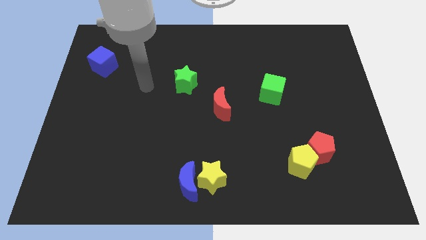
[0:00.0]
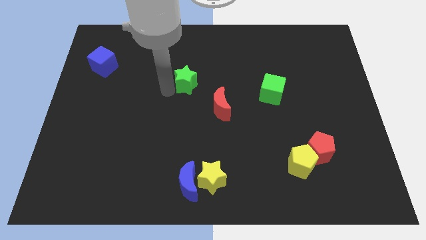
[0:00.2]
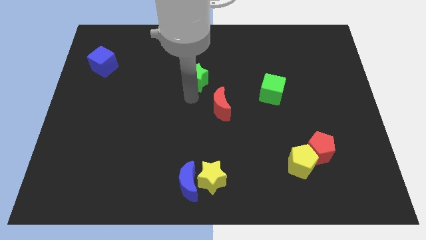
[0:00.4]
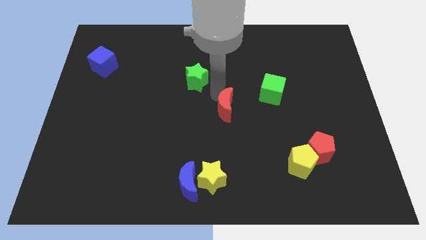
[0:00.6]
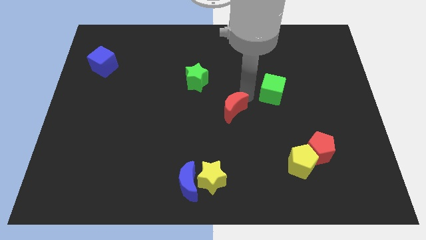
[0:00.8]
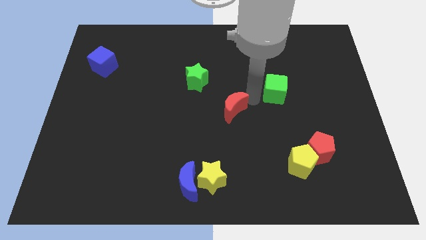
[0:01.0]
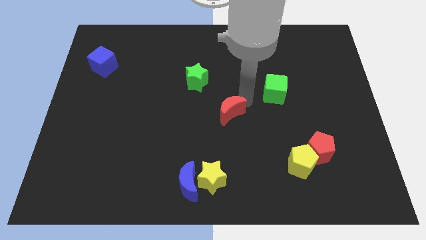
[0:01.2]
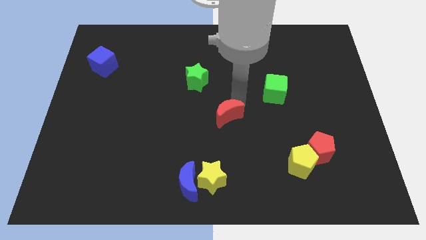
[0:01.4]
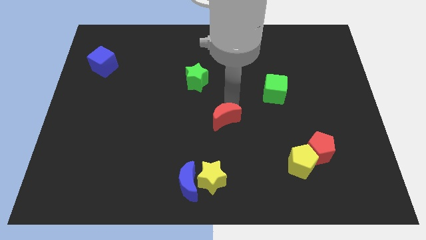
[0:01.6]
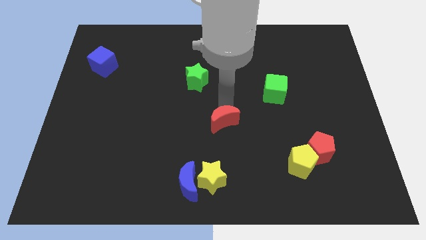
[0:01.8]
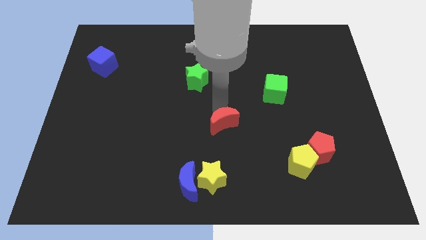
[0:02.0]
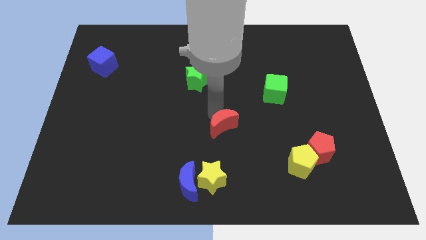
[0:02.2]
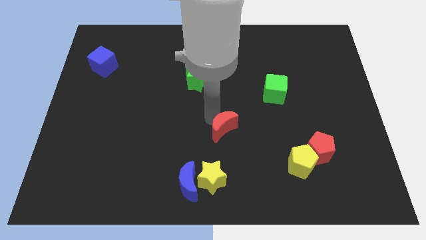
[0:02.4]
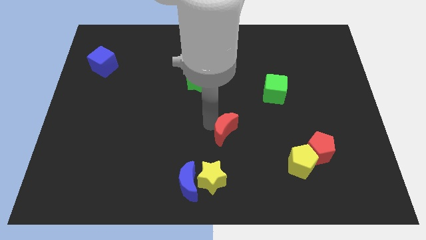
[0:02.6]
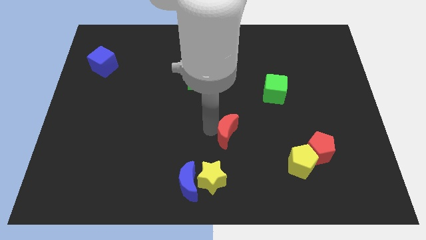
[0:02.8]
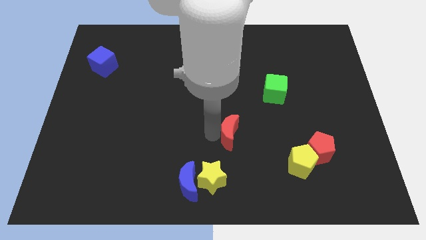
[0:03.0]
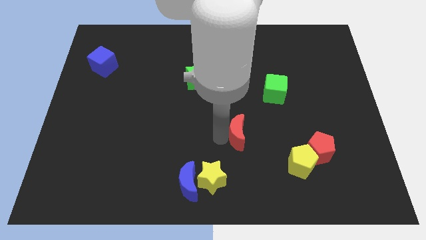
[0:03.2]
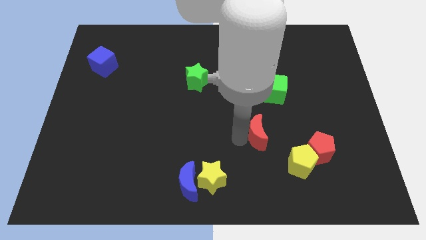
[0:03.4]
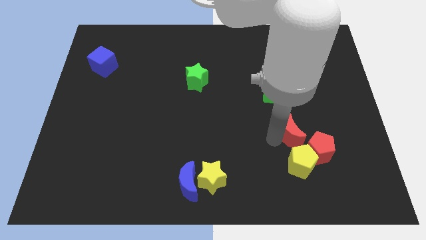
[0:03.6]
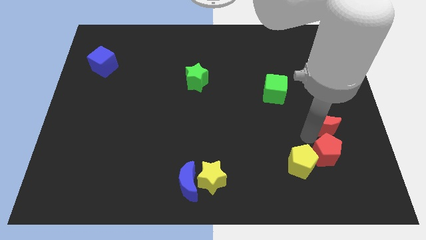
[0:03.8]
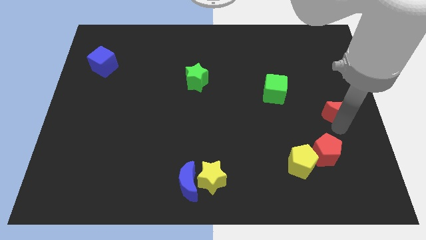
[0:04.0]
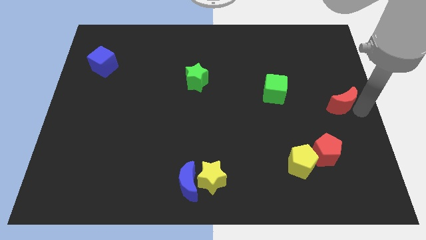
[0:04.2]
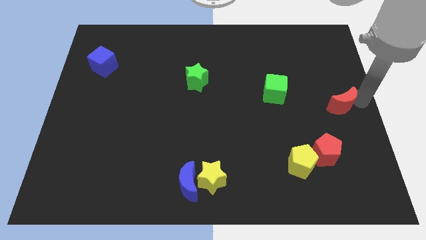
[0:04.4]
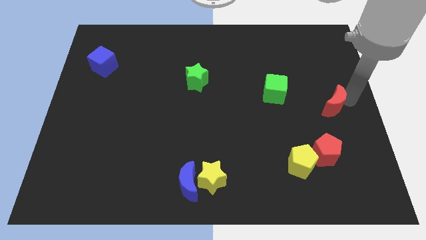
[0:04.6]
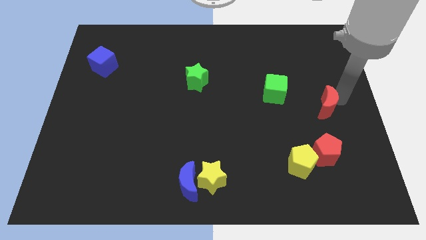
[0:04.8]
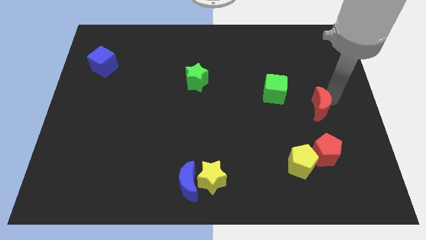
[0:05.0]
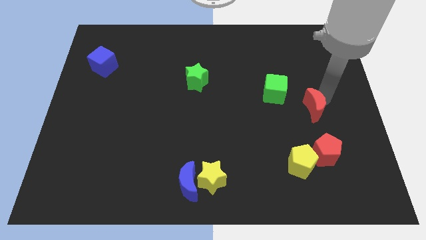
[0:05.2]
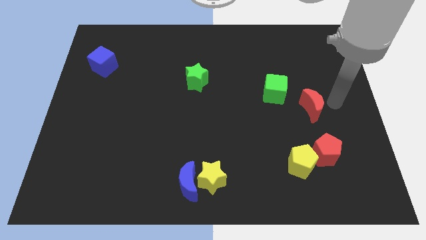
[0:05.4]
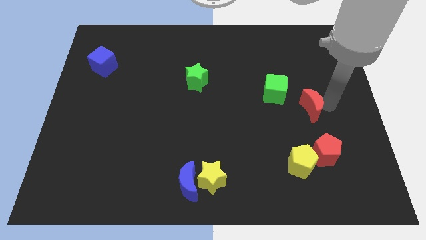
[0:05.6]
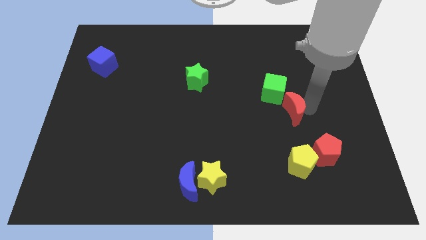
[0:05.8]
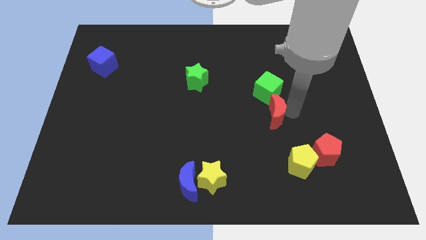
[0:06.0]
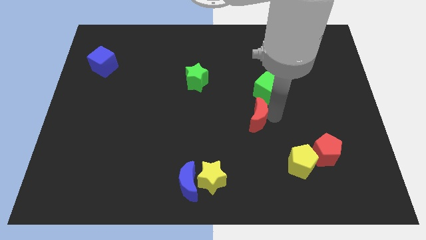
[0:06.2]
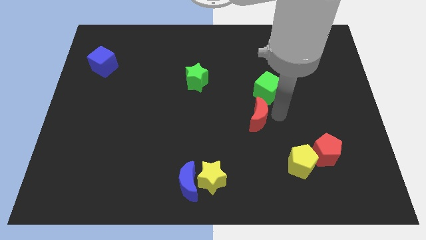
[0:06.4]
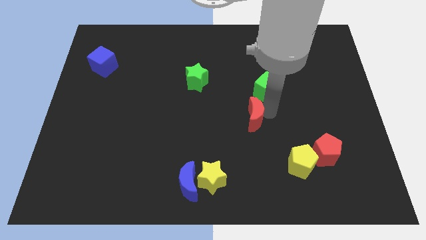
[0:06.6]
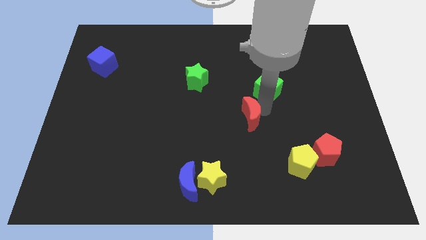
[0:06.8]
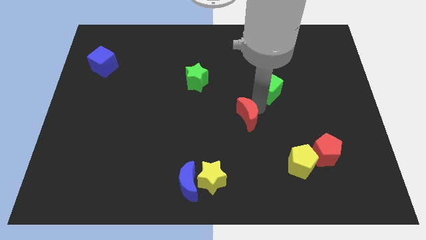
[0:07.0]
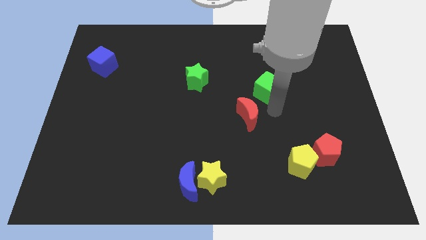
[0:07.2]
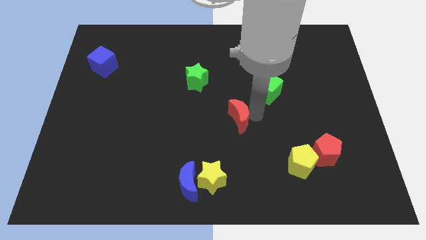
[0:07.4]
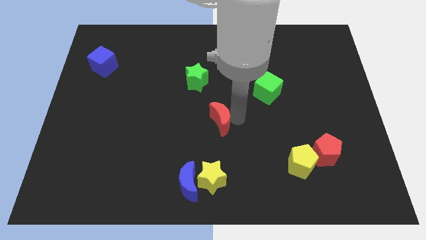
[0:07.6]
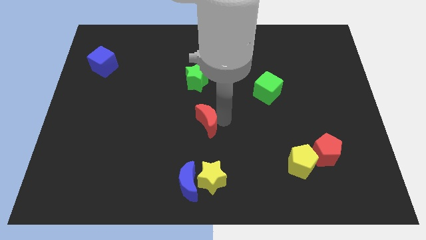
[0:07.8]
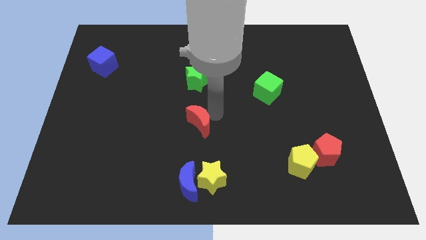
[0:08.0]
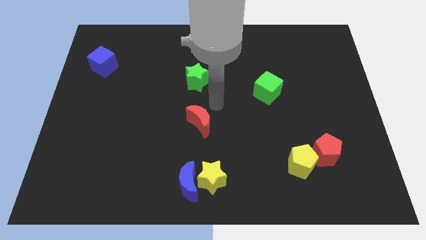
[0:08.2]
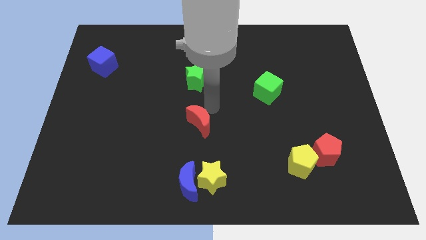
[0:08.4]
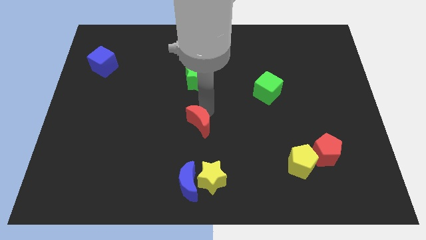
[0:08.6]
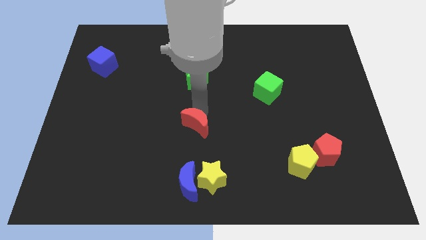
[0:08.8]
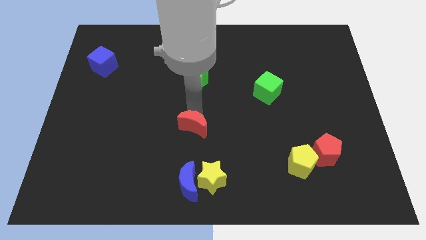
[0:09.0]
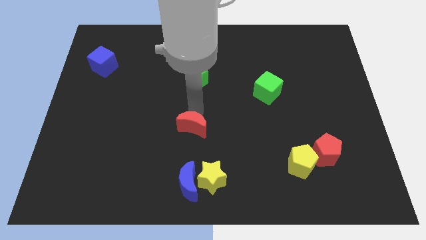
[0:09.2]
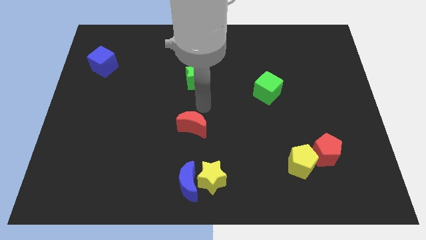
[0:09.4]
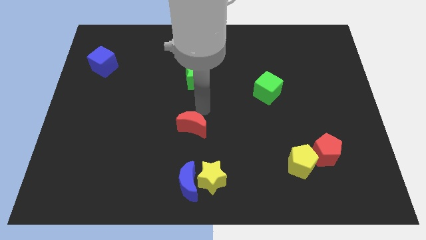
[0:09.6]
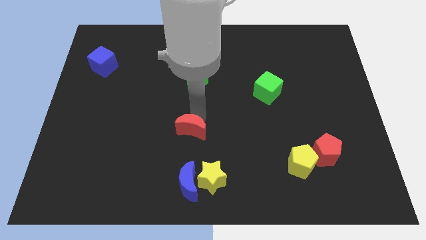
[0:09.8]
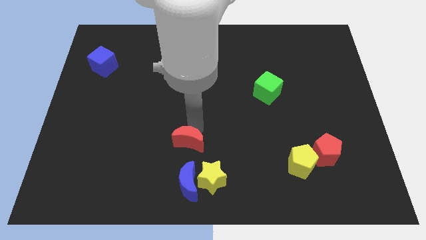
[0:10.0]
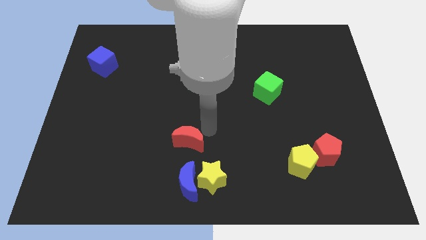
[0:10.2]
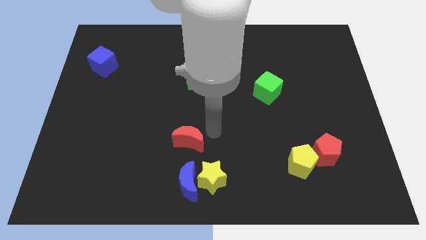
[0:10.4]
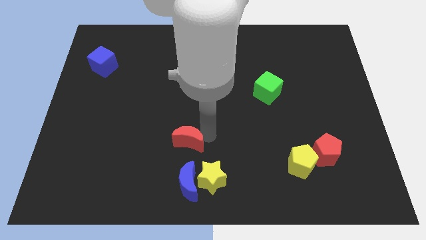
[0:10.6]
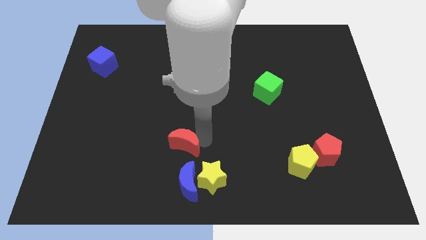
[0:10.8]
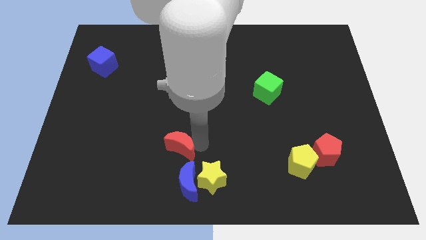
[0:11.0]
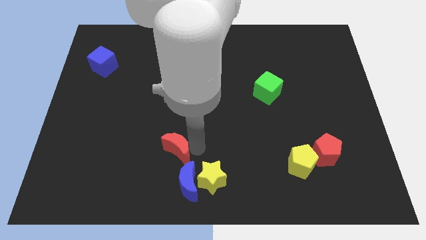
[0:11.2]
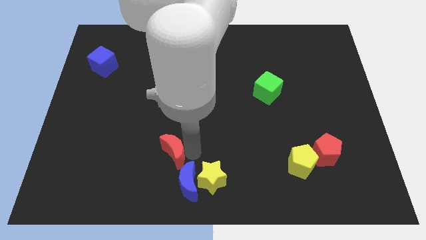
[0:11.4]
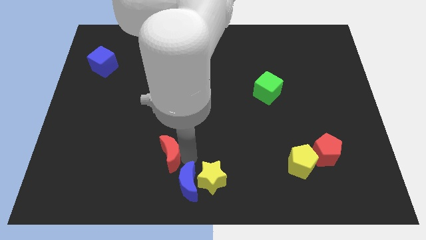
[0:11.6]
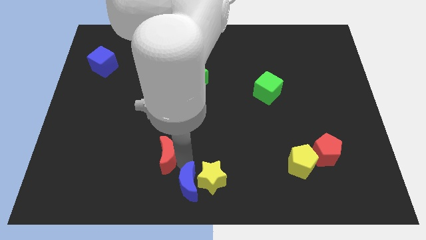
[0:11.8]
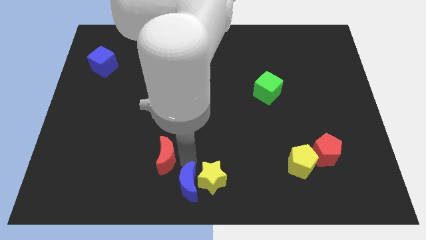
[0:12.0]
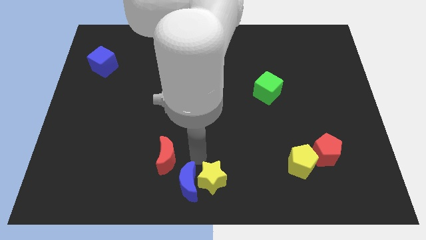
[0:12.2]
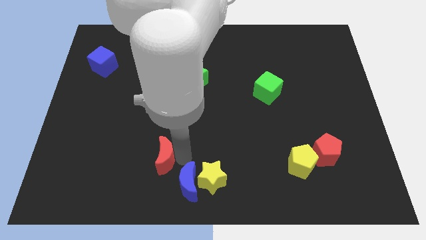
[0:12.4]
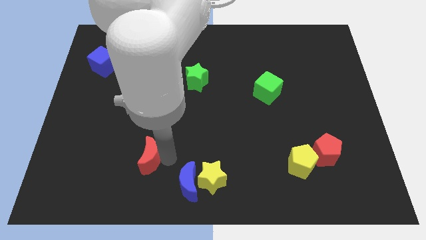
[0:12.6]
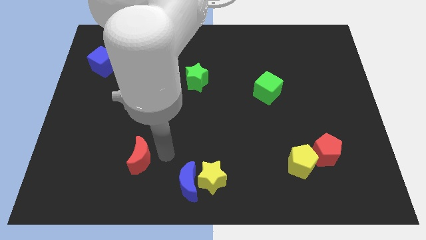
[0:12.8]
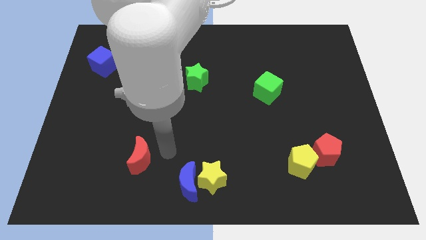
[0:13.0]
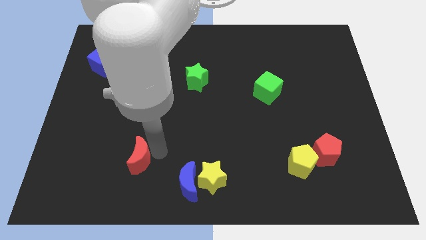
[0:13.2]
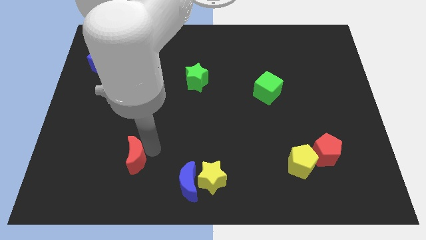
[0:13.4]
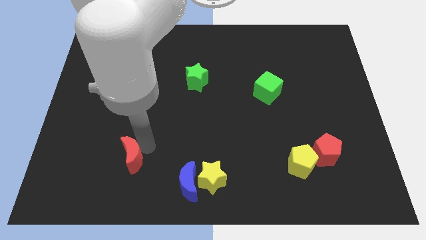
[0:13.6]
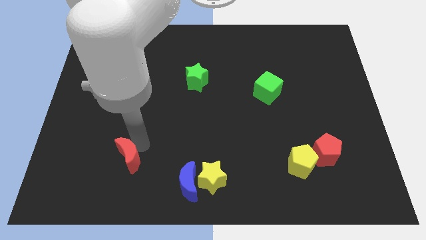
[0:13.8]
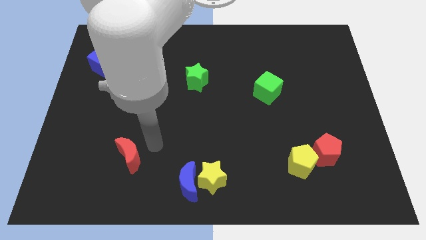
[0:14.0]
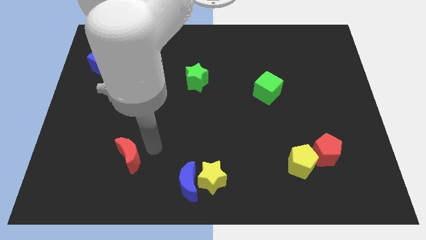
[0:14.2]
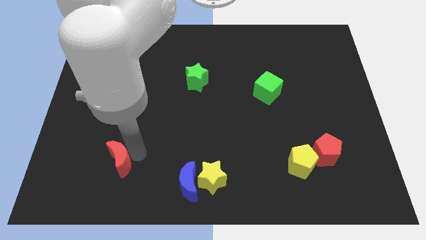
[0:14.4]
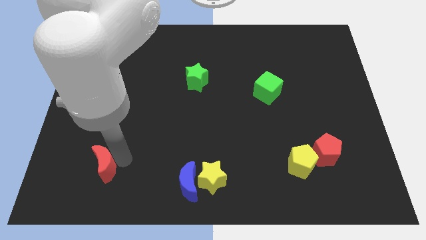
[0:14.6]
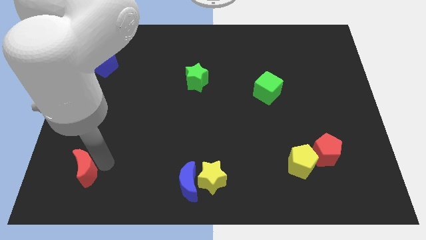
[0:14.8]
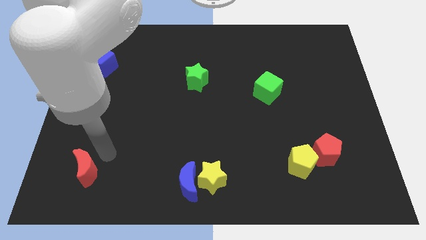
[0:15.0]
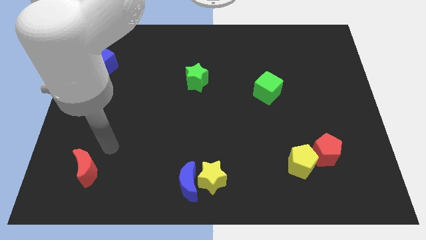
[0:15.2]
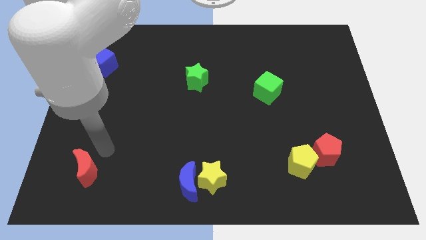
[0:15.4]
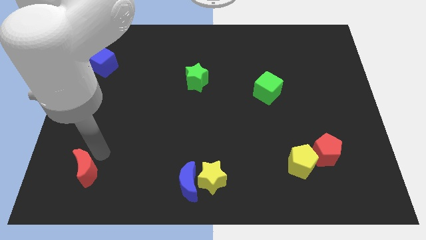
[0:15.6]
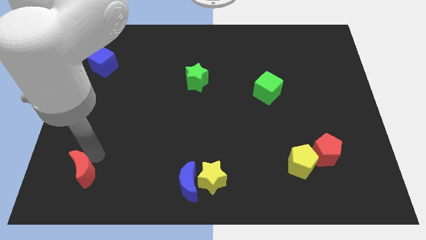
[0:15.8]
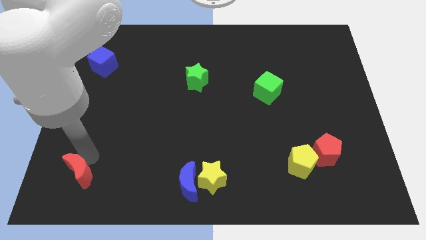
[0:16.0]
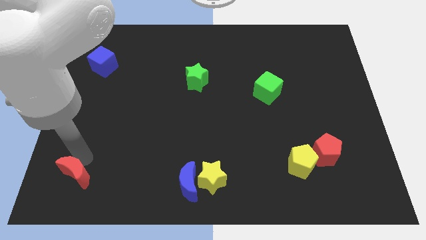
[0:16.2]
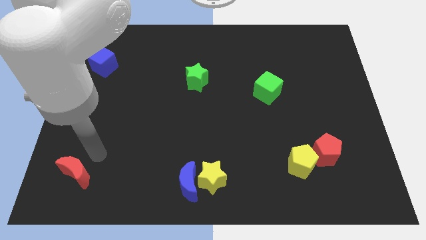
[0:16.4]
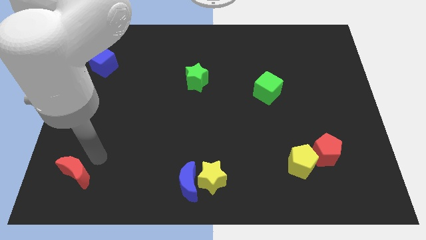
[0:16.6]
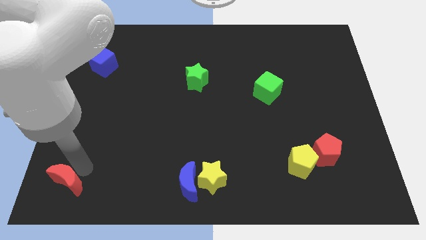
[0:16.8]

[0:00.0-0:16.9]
move the red moon to the bottom left of the board
